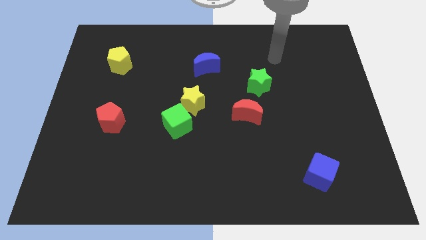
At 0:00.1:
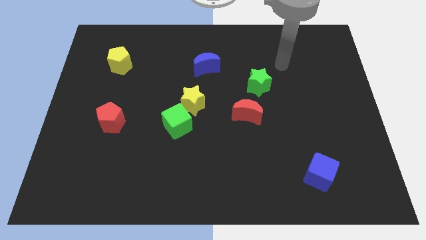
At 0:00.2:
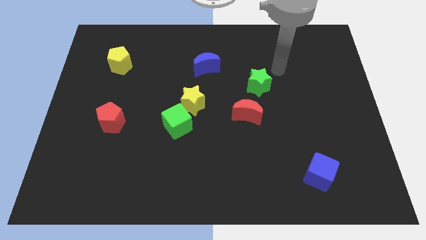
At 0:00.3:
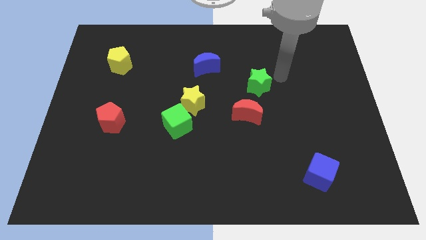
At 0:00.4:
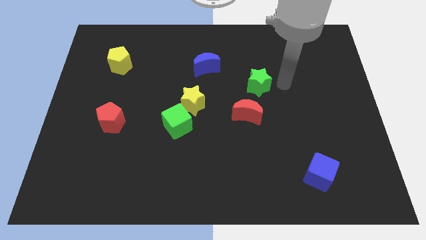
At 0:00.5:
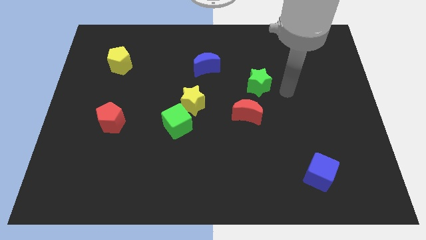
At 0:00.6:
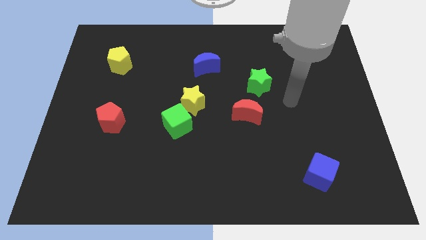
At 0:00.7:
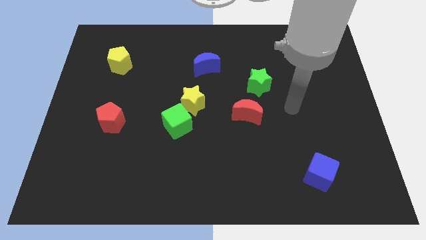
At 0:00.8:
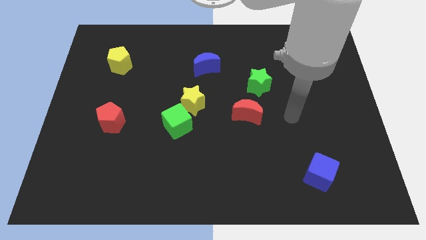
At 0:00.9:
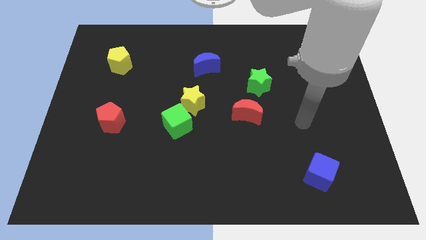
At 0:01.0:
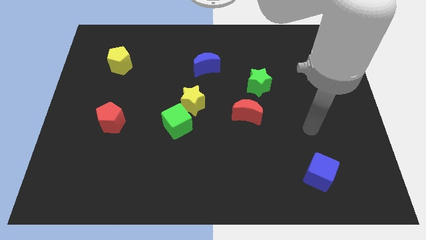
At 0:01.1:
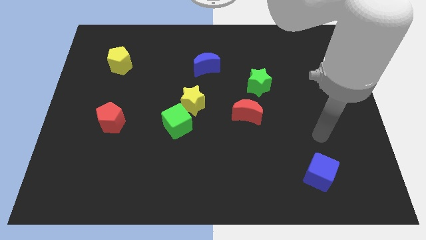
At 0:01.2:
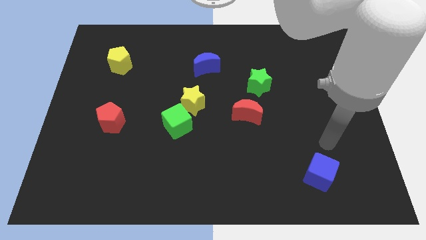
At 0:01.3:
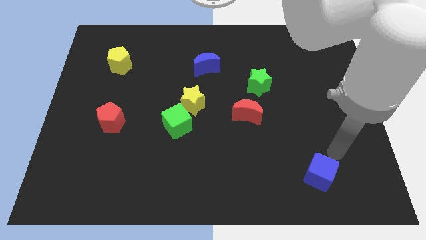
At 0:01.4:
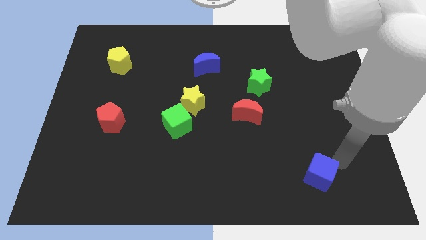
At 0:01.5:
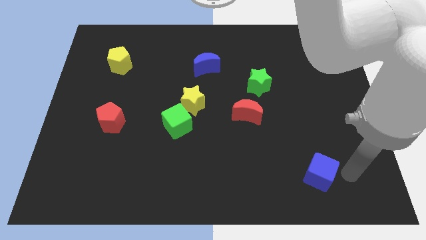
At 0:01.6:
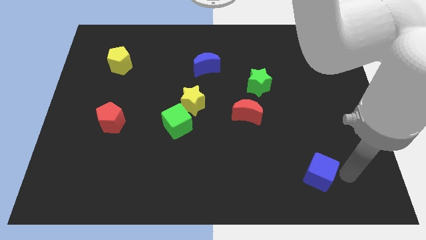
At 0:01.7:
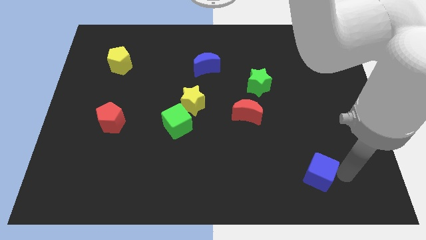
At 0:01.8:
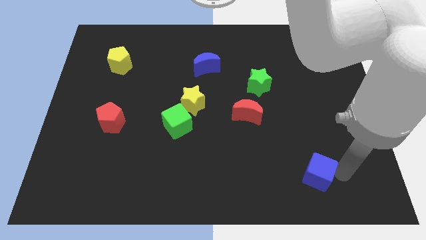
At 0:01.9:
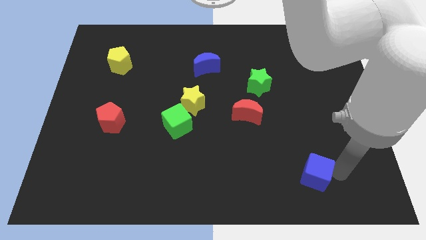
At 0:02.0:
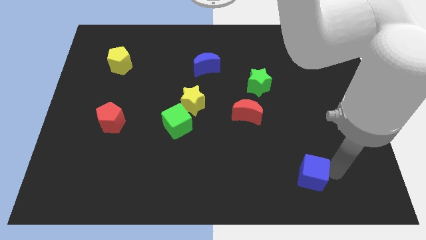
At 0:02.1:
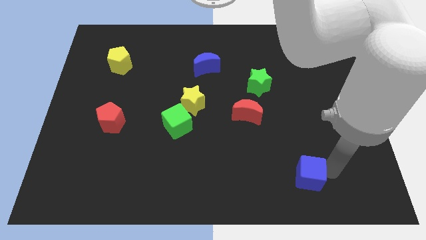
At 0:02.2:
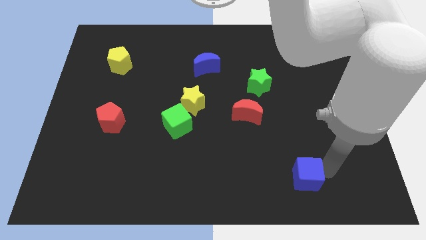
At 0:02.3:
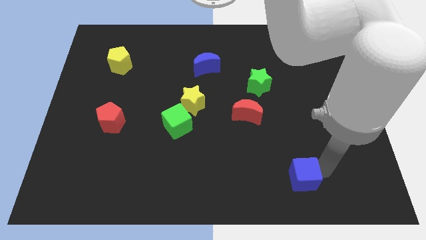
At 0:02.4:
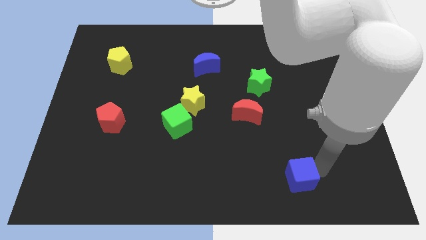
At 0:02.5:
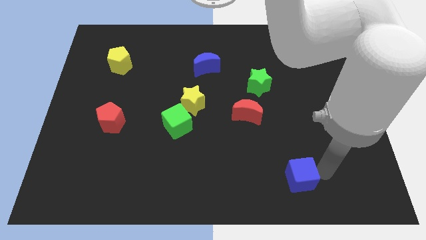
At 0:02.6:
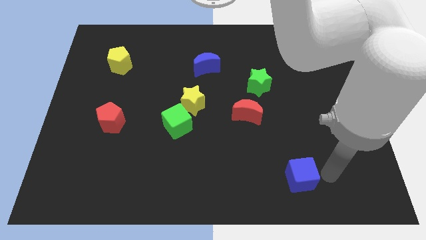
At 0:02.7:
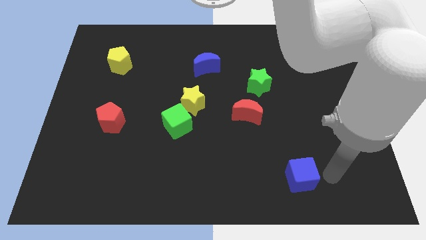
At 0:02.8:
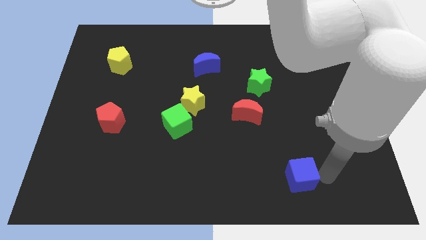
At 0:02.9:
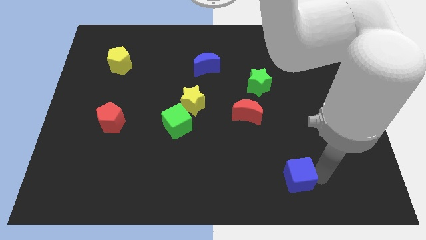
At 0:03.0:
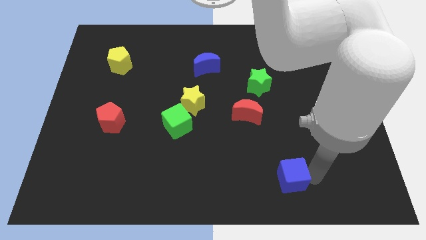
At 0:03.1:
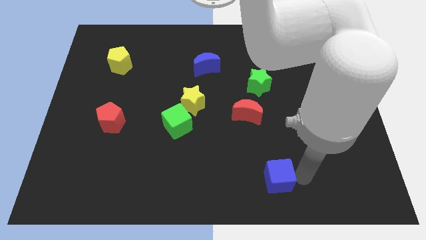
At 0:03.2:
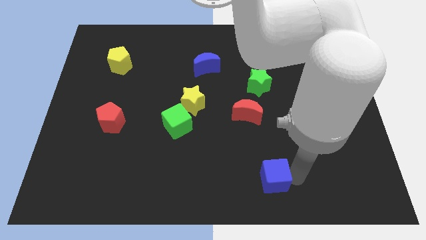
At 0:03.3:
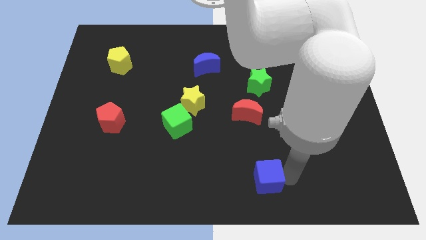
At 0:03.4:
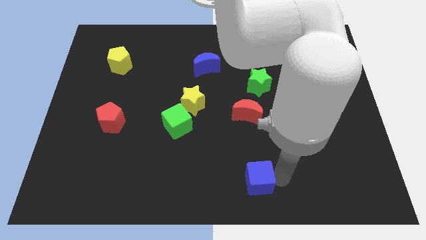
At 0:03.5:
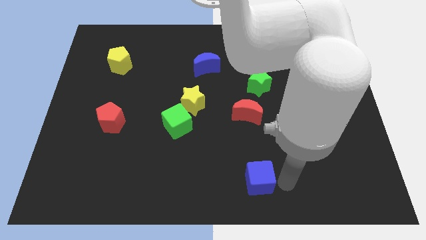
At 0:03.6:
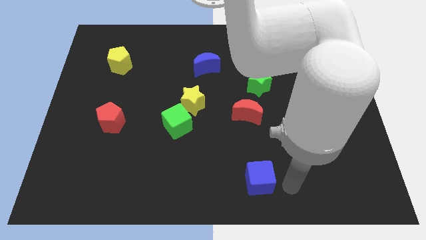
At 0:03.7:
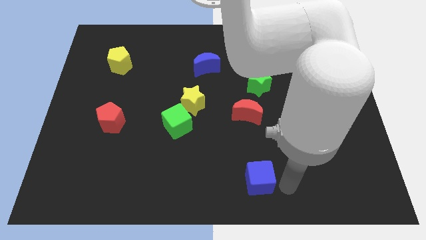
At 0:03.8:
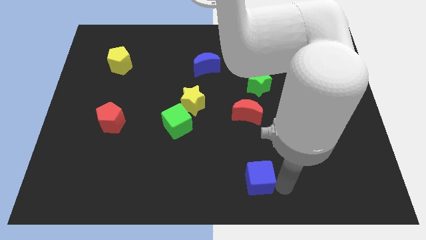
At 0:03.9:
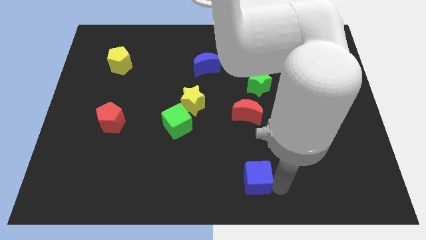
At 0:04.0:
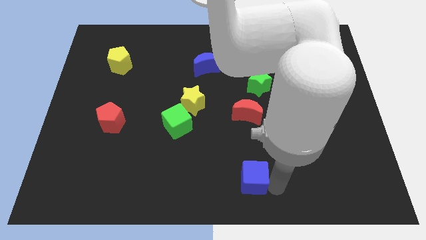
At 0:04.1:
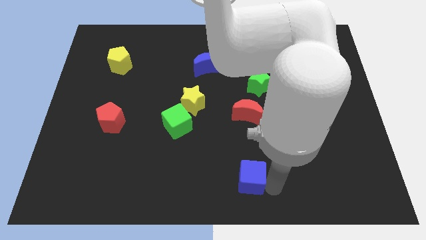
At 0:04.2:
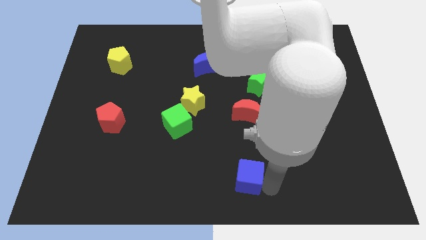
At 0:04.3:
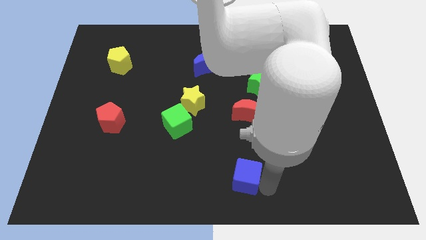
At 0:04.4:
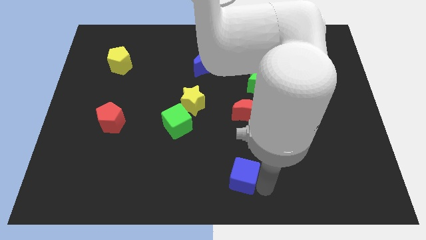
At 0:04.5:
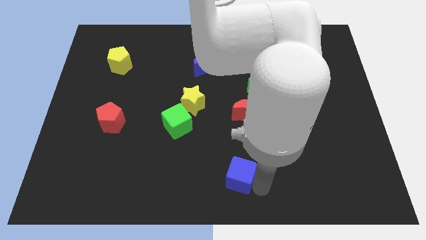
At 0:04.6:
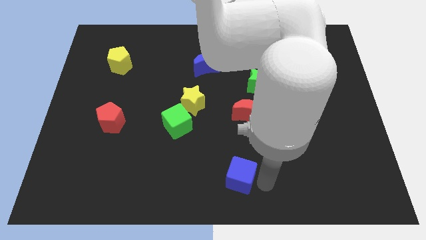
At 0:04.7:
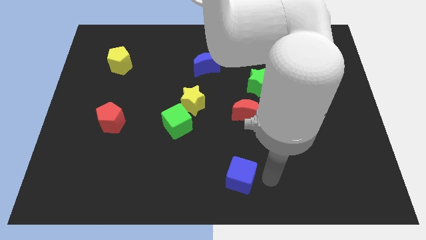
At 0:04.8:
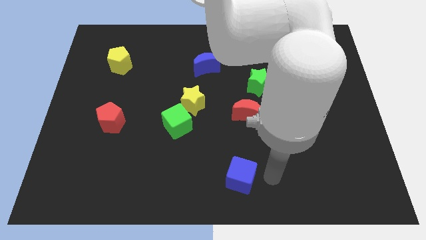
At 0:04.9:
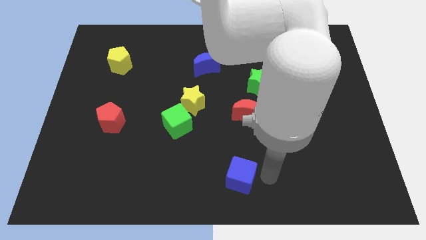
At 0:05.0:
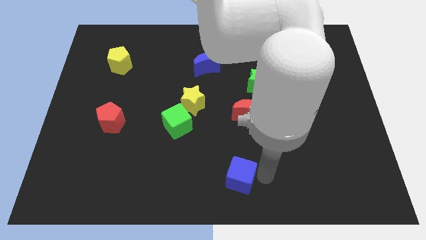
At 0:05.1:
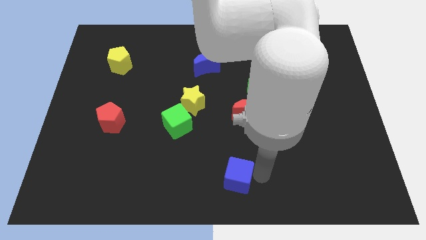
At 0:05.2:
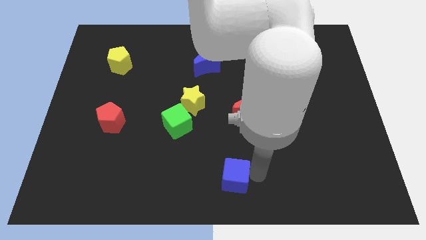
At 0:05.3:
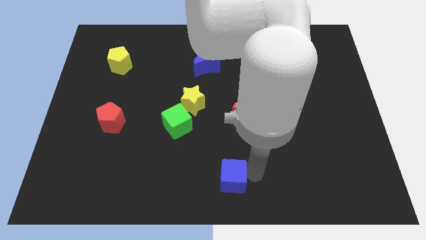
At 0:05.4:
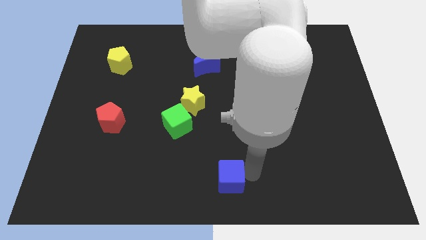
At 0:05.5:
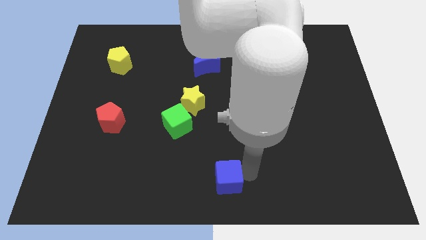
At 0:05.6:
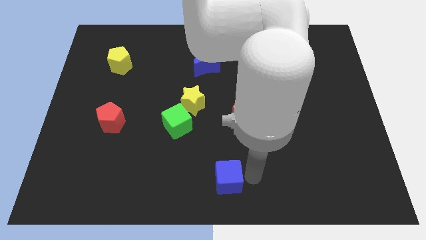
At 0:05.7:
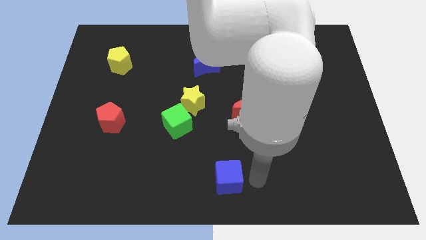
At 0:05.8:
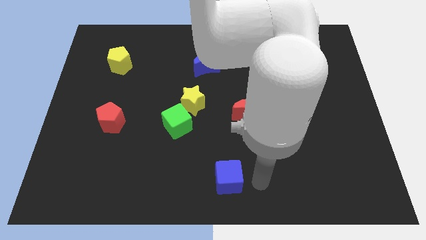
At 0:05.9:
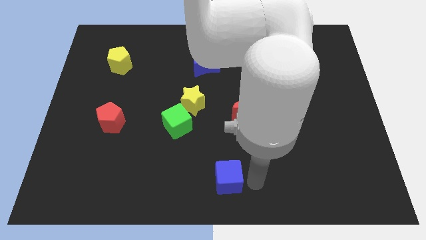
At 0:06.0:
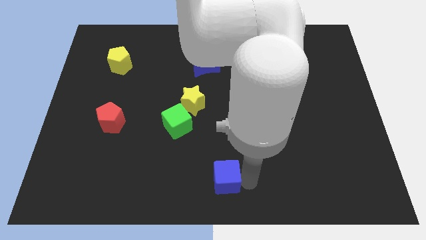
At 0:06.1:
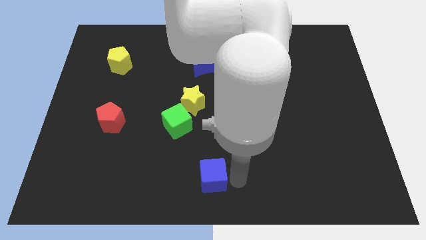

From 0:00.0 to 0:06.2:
slide the blue cube left

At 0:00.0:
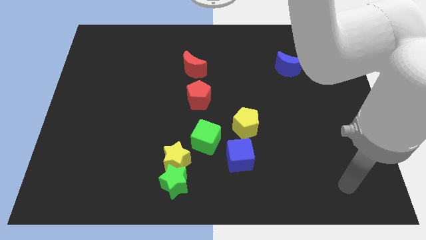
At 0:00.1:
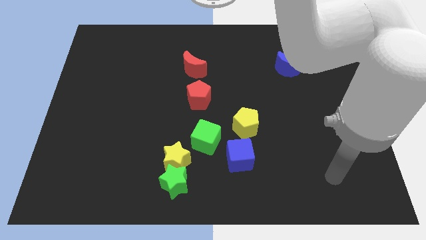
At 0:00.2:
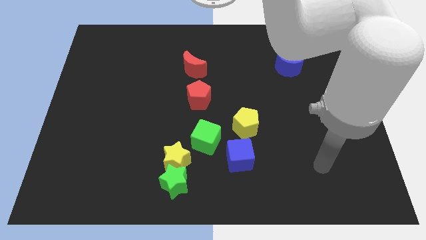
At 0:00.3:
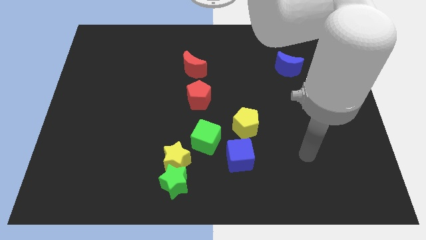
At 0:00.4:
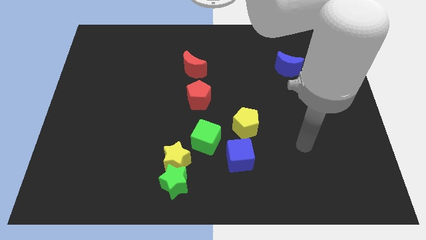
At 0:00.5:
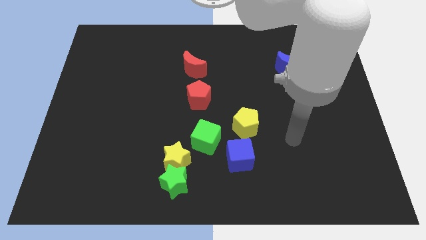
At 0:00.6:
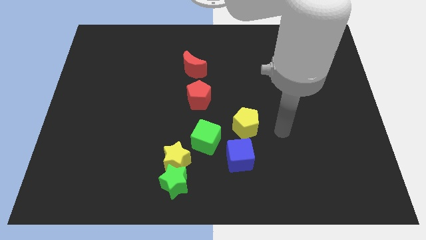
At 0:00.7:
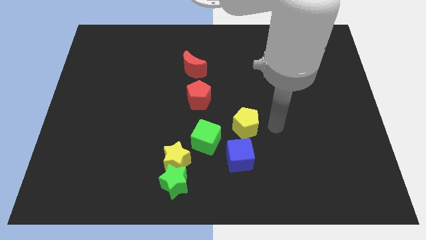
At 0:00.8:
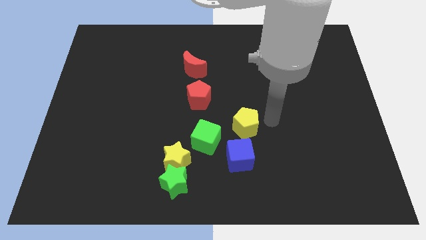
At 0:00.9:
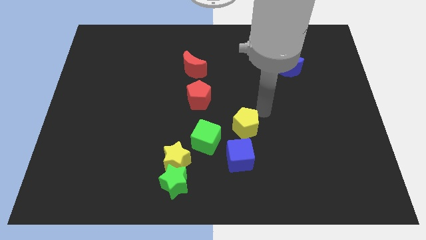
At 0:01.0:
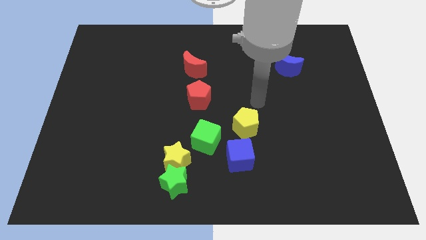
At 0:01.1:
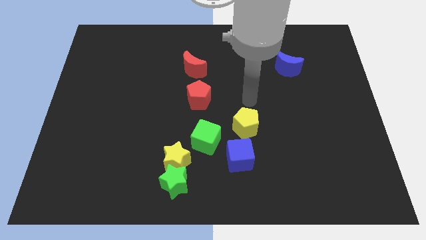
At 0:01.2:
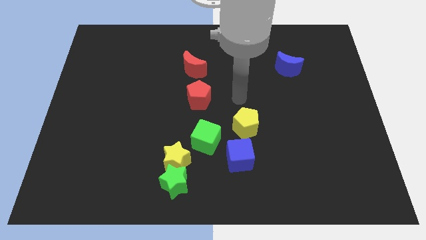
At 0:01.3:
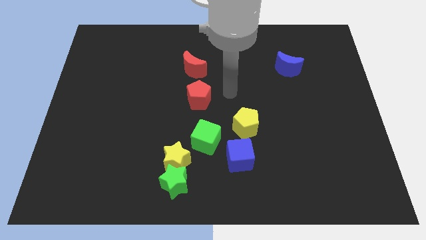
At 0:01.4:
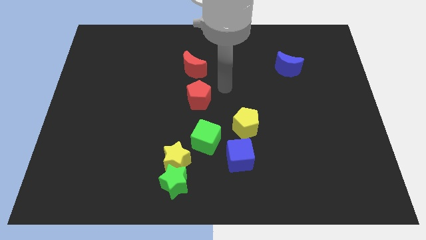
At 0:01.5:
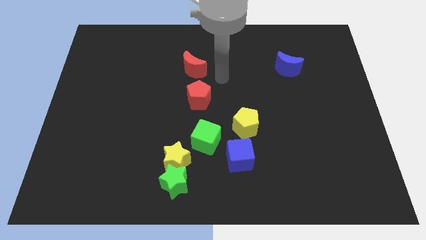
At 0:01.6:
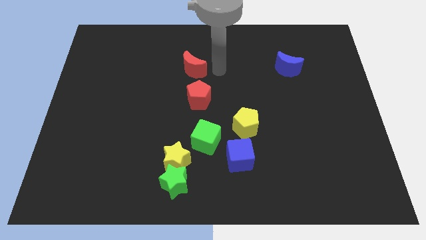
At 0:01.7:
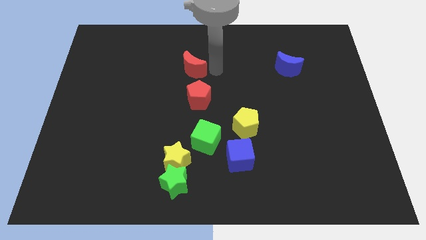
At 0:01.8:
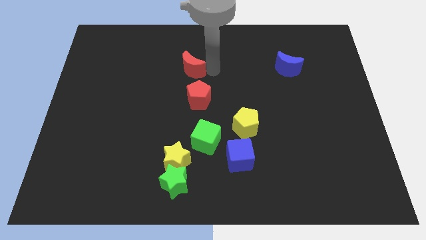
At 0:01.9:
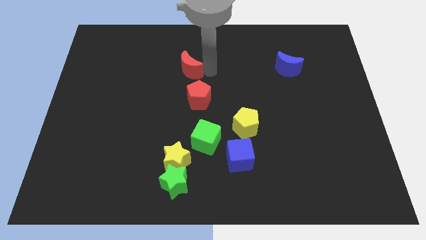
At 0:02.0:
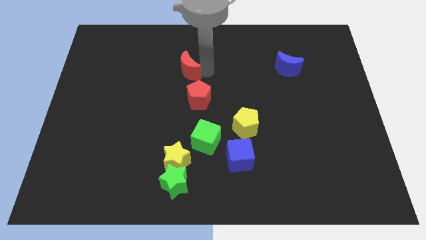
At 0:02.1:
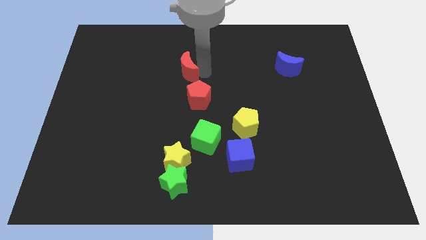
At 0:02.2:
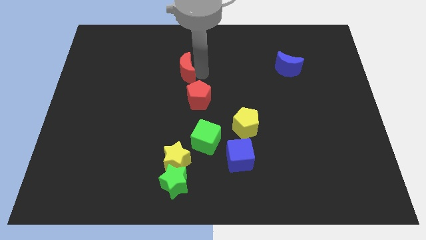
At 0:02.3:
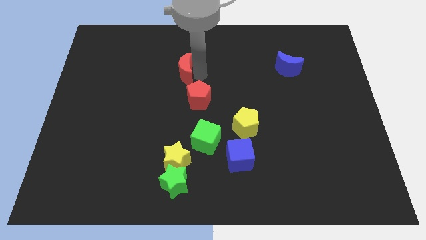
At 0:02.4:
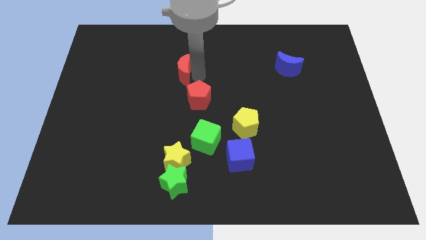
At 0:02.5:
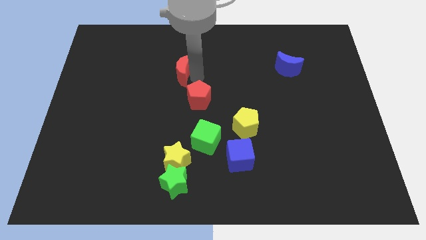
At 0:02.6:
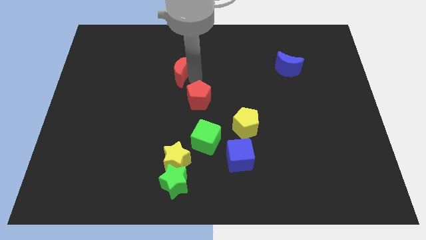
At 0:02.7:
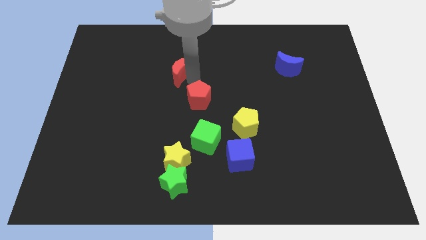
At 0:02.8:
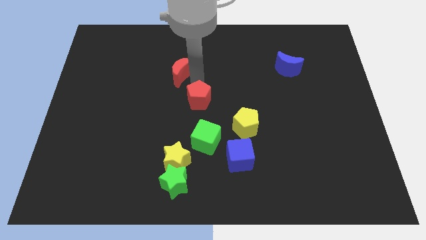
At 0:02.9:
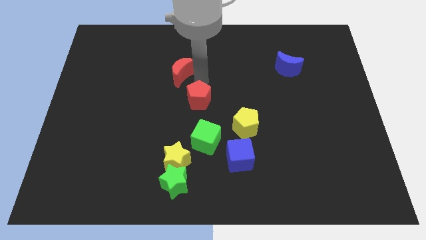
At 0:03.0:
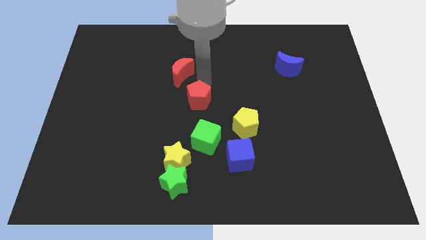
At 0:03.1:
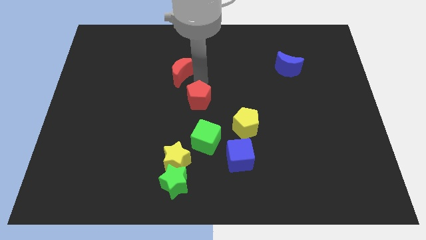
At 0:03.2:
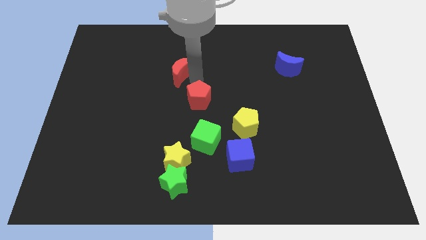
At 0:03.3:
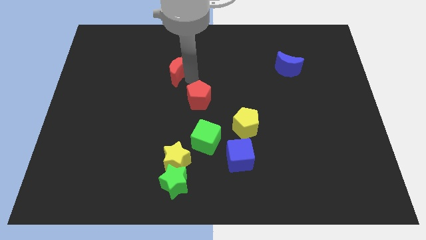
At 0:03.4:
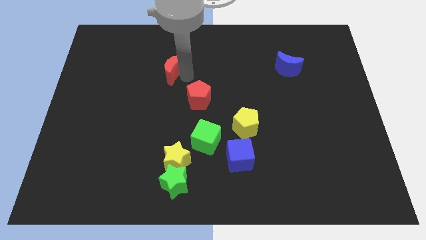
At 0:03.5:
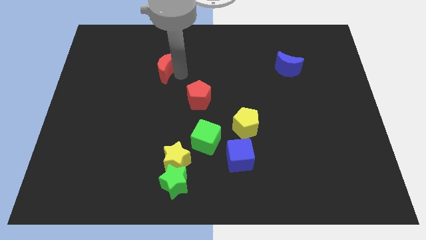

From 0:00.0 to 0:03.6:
slightly slide the red moon to the left
